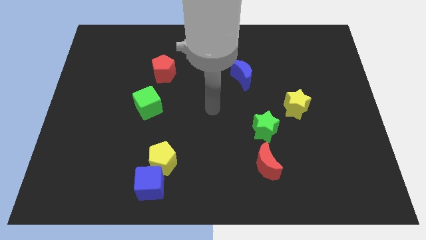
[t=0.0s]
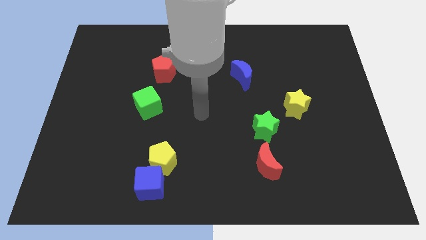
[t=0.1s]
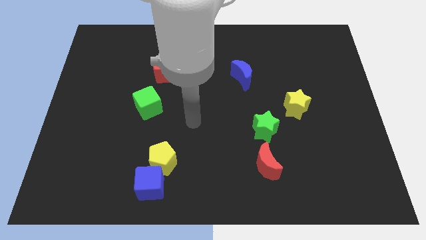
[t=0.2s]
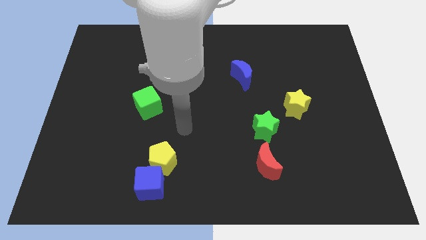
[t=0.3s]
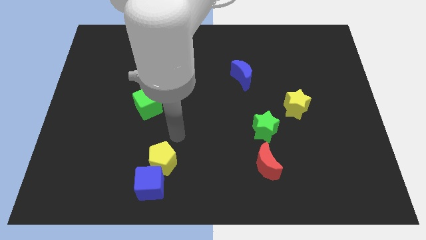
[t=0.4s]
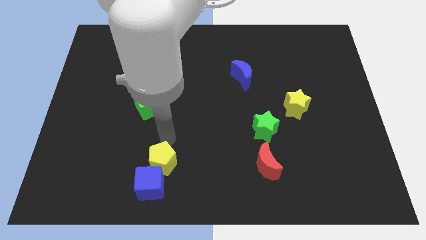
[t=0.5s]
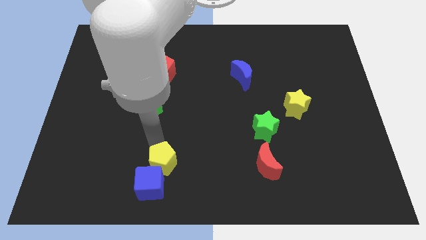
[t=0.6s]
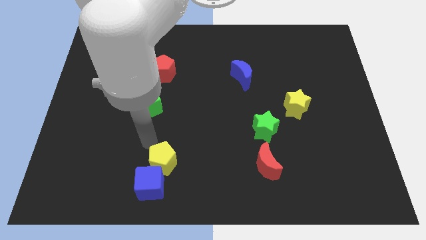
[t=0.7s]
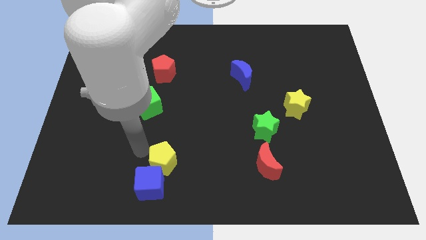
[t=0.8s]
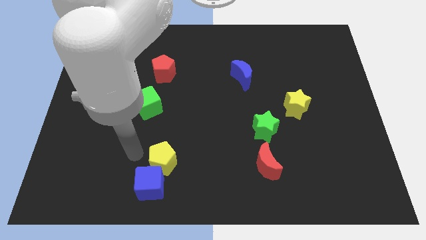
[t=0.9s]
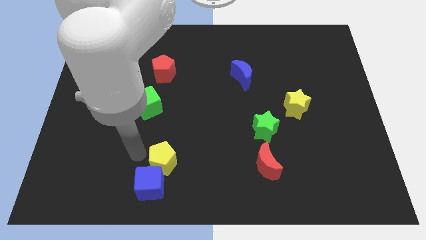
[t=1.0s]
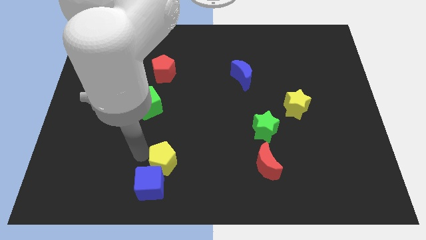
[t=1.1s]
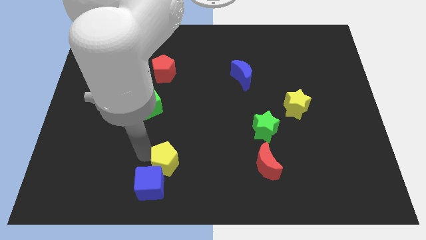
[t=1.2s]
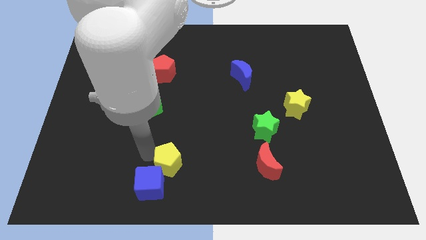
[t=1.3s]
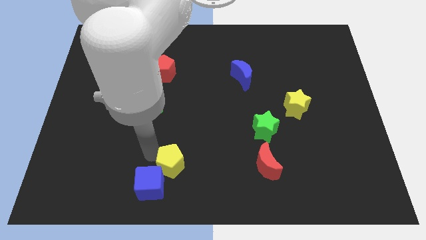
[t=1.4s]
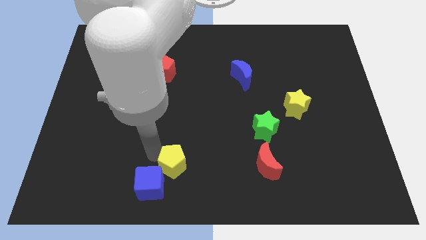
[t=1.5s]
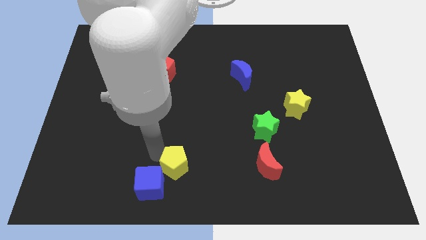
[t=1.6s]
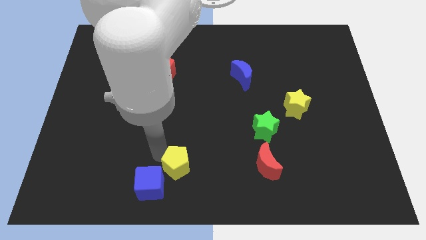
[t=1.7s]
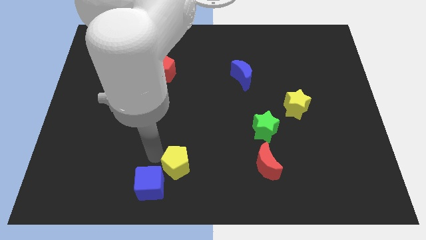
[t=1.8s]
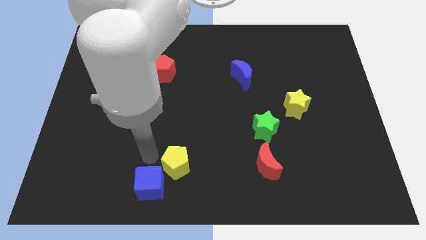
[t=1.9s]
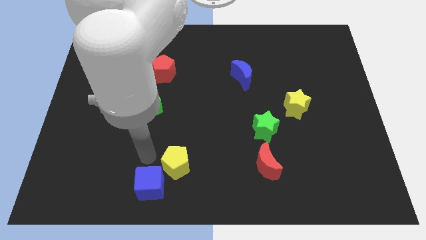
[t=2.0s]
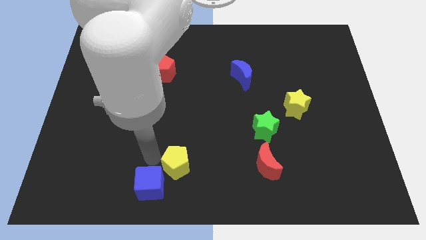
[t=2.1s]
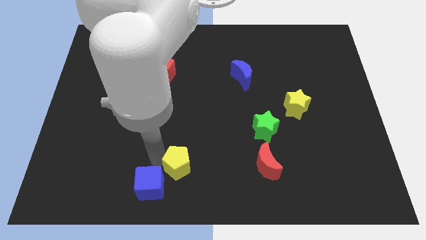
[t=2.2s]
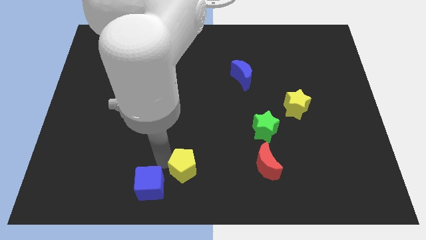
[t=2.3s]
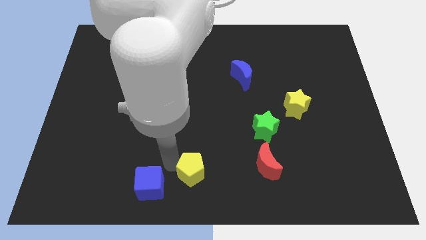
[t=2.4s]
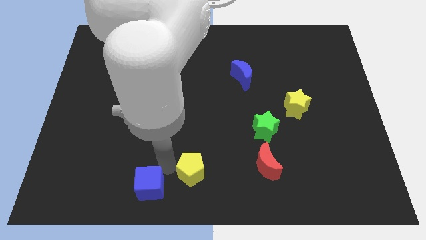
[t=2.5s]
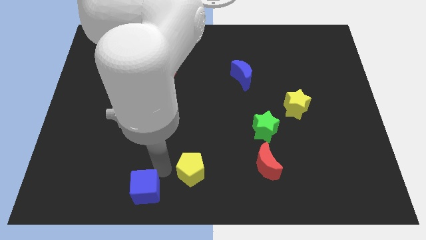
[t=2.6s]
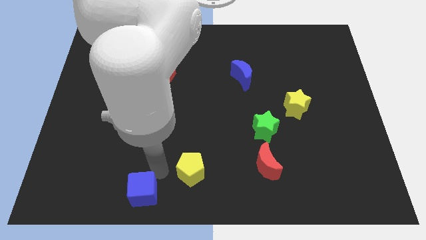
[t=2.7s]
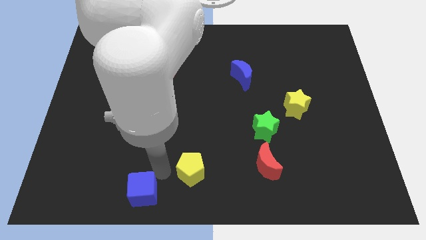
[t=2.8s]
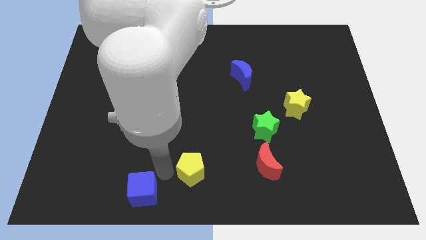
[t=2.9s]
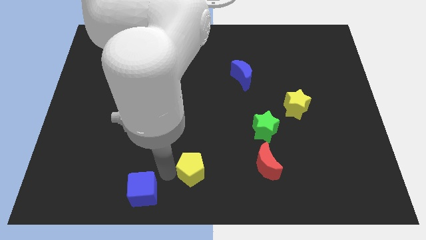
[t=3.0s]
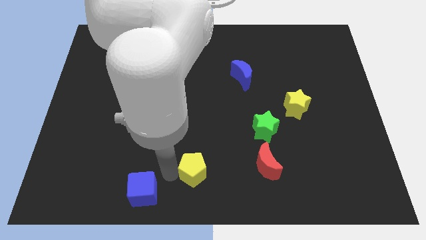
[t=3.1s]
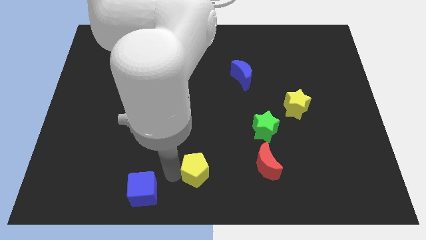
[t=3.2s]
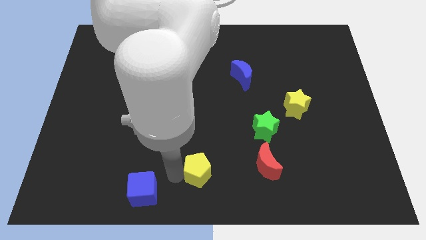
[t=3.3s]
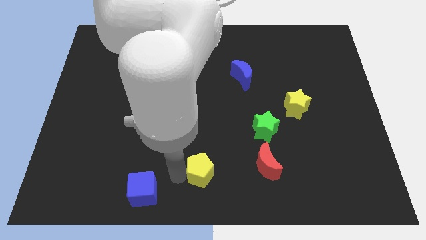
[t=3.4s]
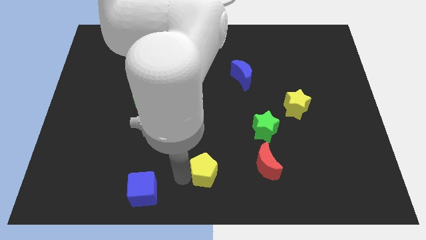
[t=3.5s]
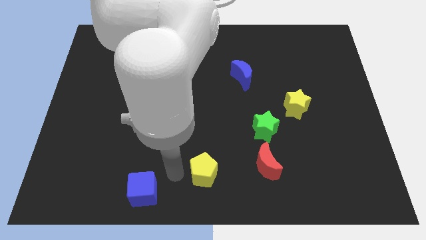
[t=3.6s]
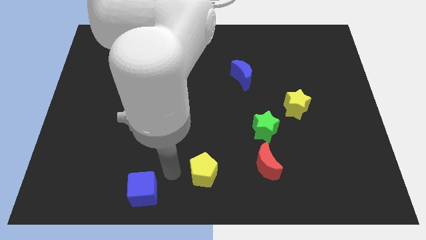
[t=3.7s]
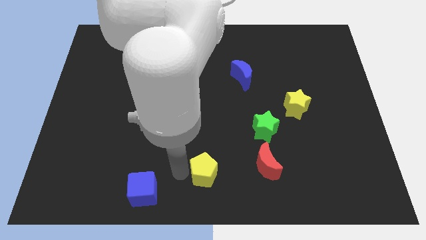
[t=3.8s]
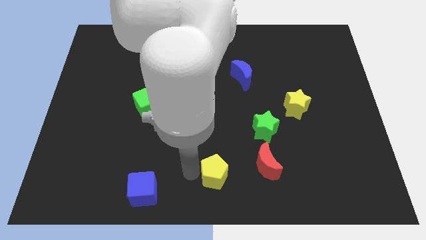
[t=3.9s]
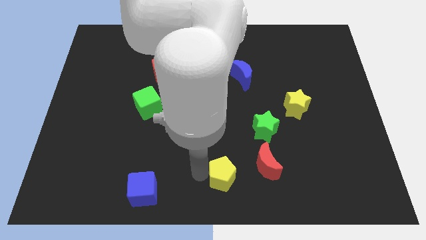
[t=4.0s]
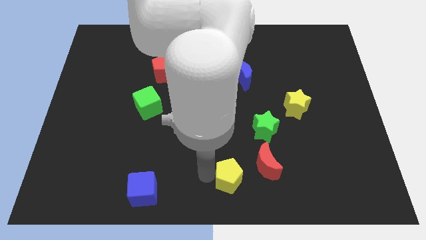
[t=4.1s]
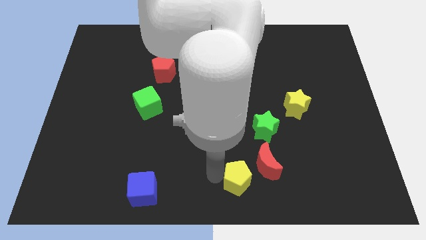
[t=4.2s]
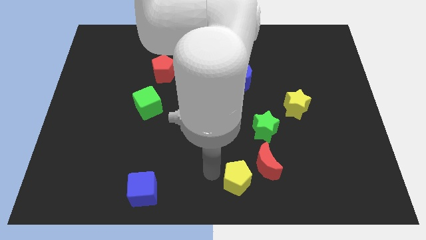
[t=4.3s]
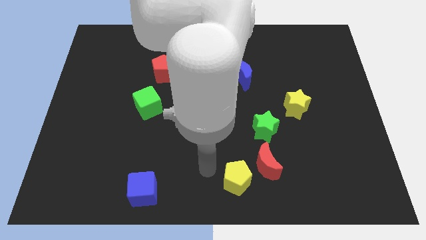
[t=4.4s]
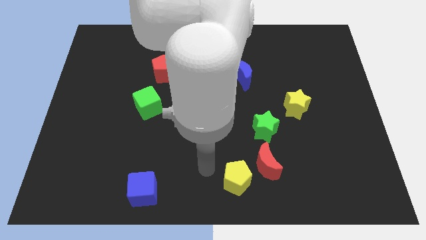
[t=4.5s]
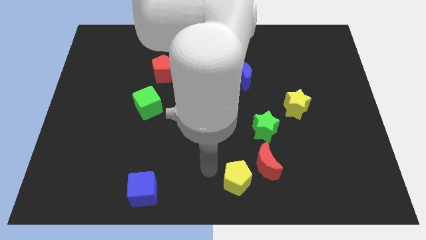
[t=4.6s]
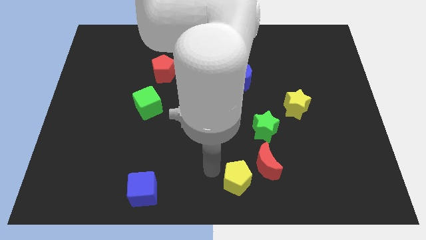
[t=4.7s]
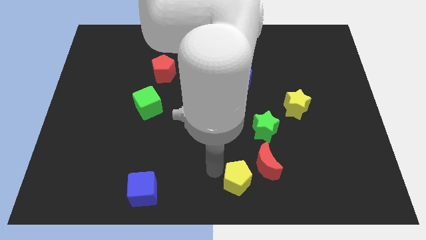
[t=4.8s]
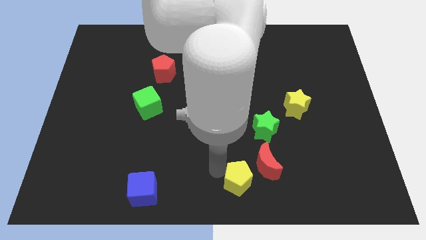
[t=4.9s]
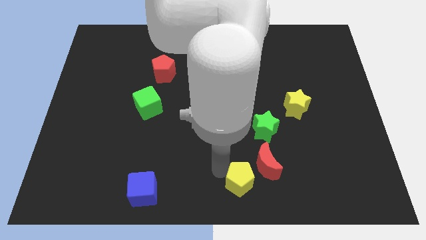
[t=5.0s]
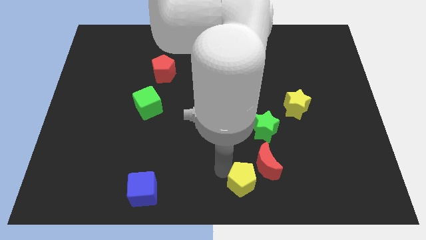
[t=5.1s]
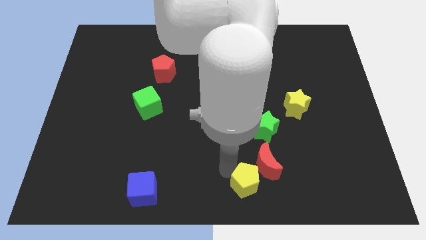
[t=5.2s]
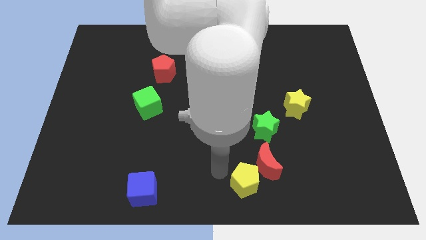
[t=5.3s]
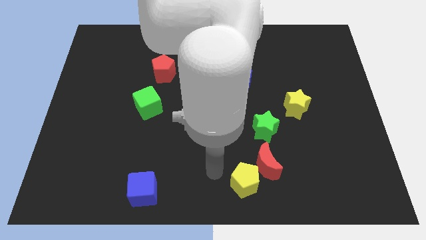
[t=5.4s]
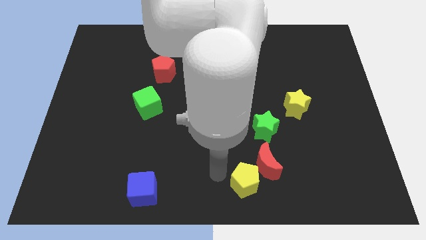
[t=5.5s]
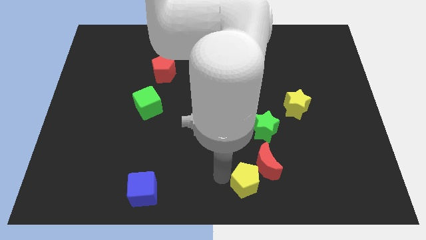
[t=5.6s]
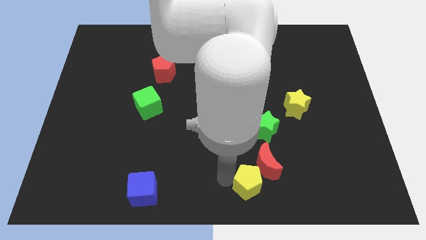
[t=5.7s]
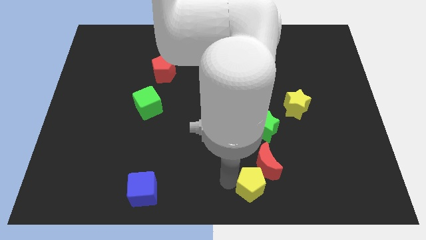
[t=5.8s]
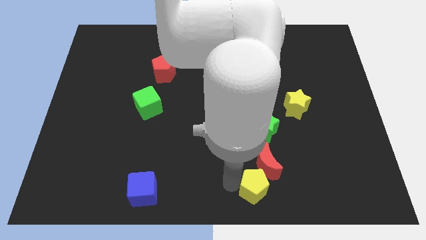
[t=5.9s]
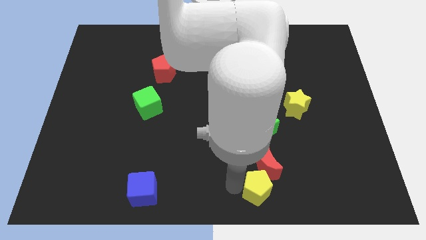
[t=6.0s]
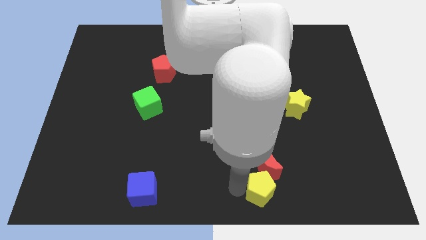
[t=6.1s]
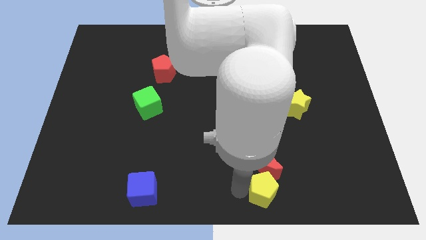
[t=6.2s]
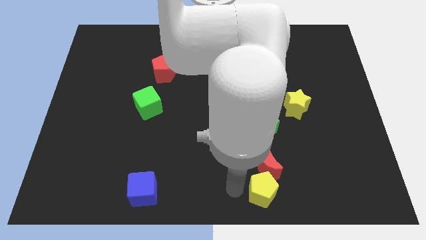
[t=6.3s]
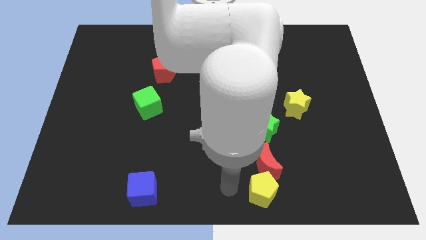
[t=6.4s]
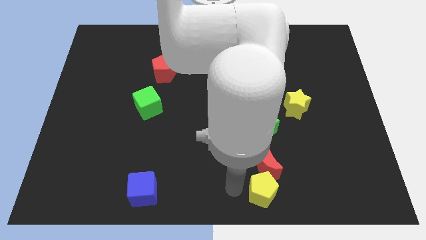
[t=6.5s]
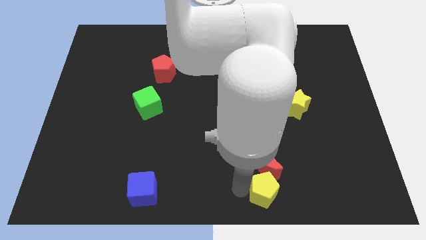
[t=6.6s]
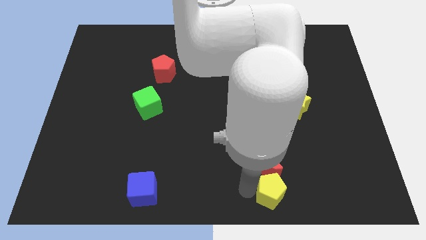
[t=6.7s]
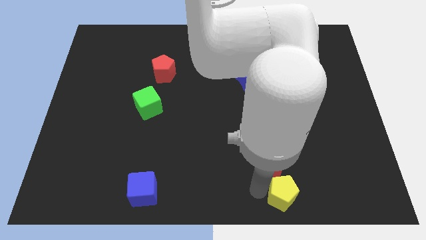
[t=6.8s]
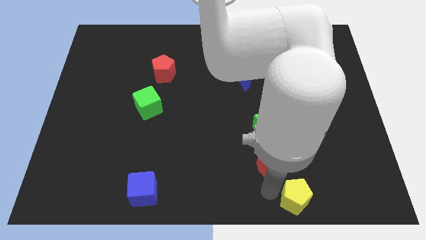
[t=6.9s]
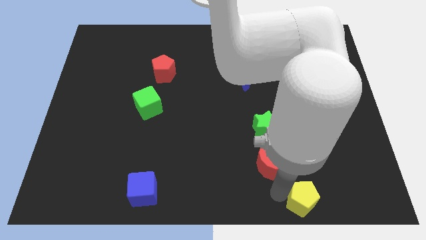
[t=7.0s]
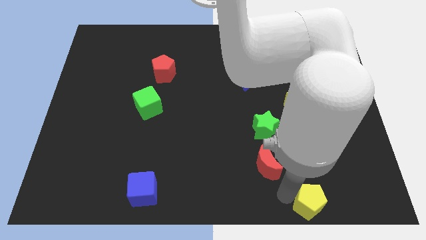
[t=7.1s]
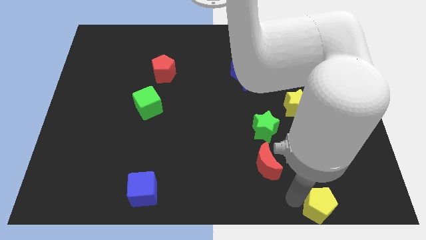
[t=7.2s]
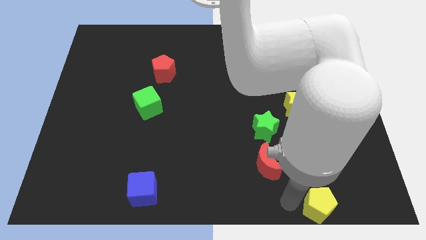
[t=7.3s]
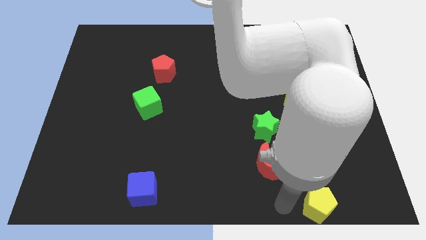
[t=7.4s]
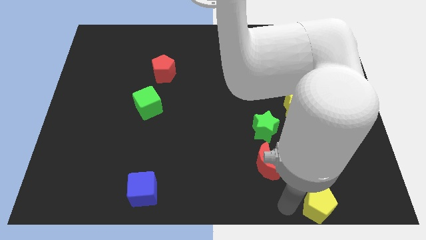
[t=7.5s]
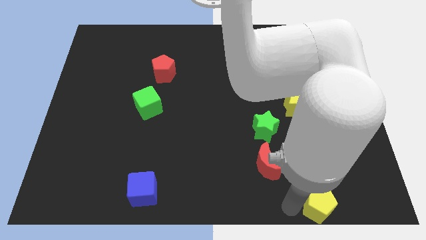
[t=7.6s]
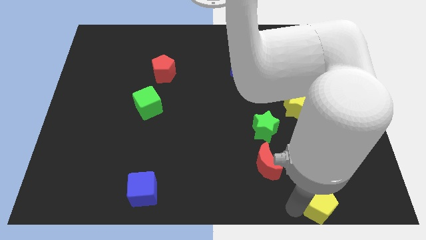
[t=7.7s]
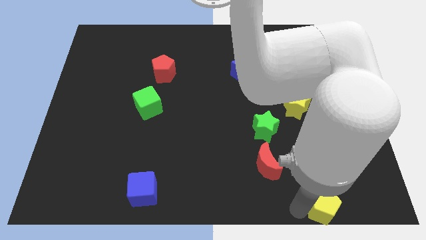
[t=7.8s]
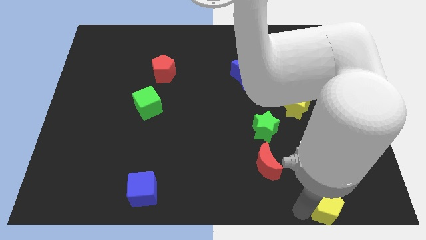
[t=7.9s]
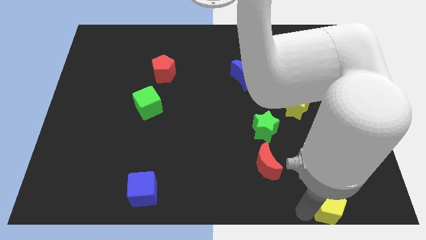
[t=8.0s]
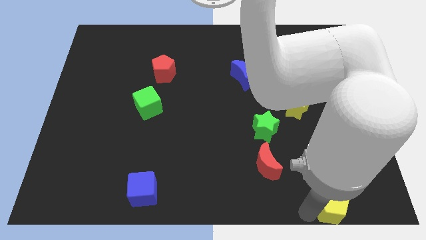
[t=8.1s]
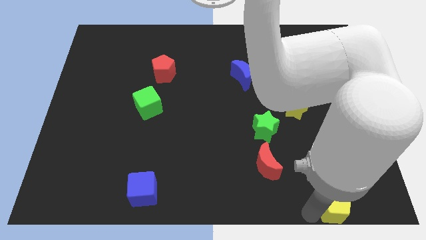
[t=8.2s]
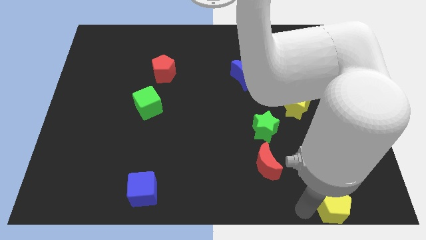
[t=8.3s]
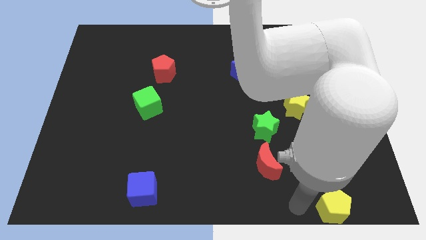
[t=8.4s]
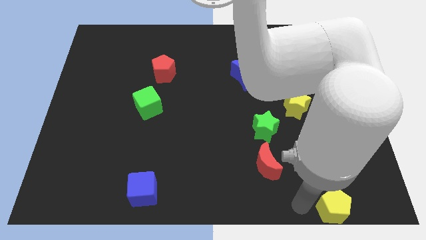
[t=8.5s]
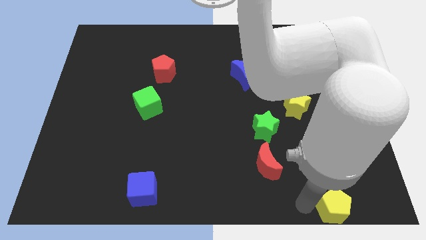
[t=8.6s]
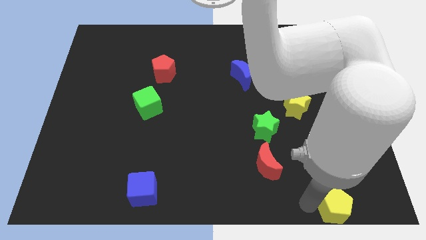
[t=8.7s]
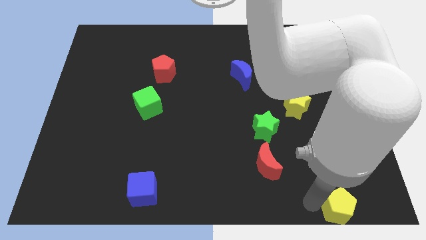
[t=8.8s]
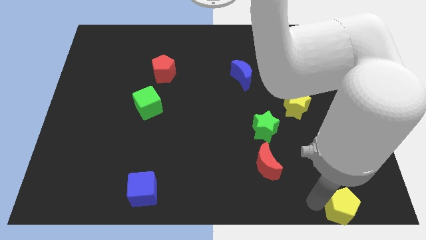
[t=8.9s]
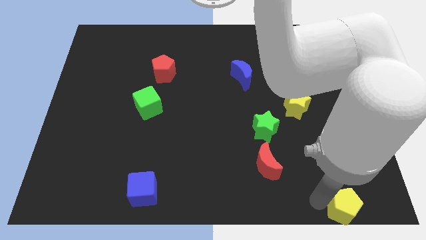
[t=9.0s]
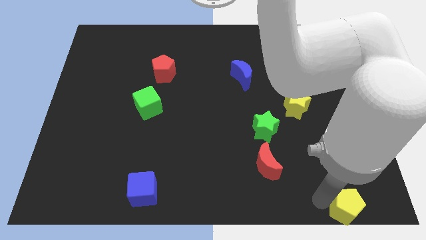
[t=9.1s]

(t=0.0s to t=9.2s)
put the yellow pentagon to the lower right corner
